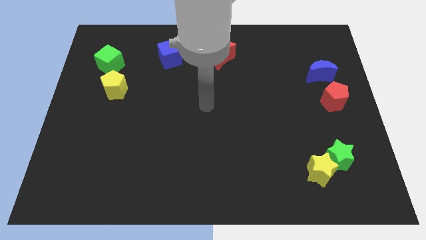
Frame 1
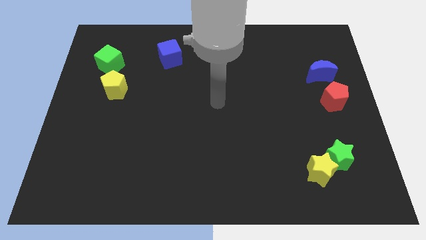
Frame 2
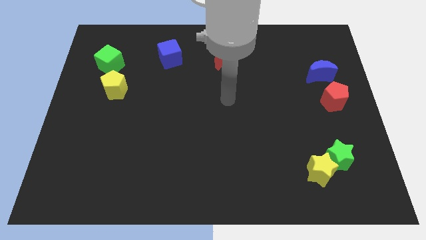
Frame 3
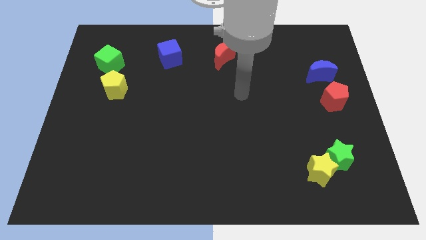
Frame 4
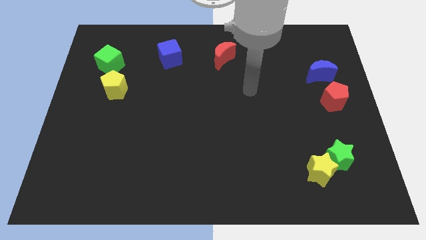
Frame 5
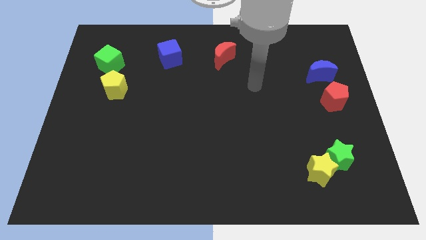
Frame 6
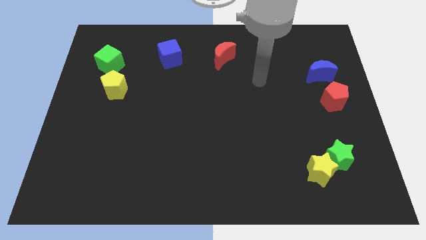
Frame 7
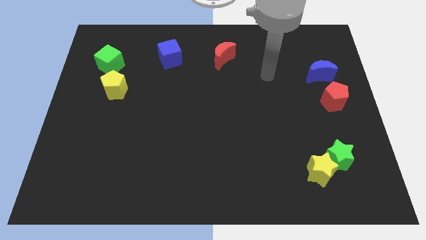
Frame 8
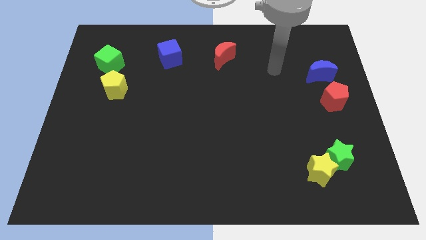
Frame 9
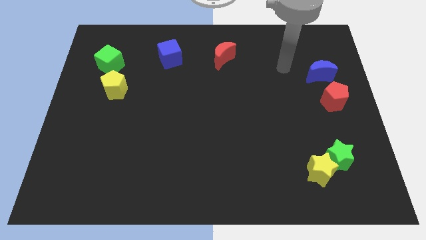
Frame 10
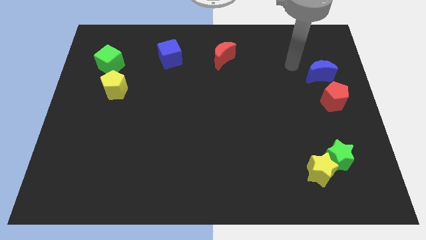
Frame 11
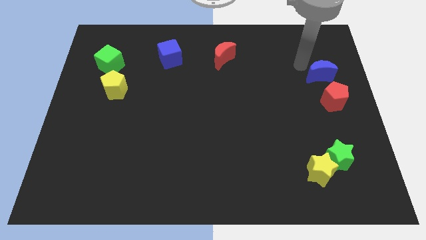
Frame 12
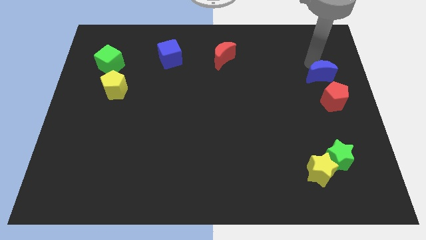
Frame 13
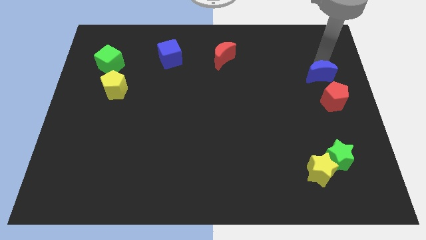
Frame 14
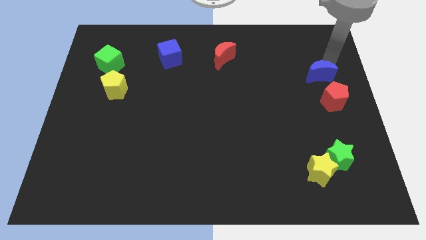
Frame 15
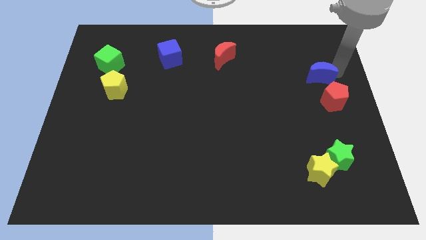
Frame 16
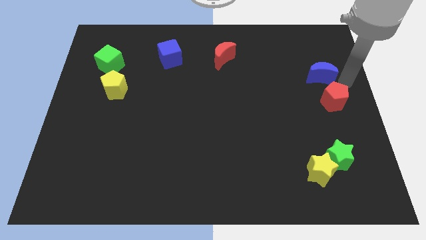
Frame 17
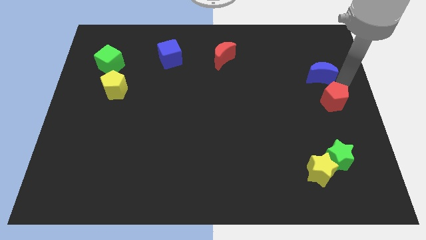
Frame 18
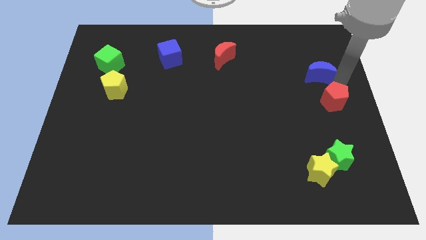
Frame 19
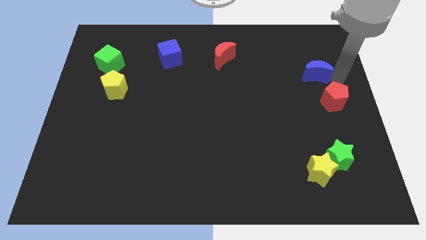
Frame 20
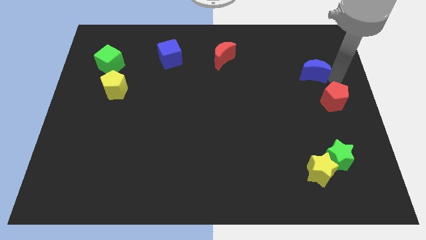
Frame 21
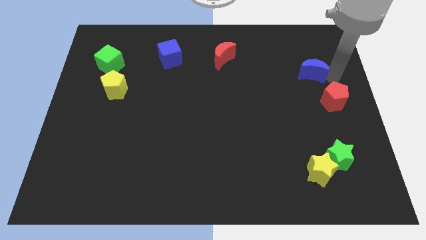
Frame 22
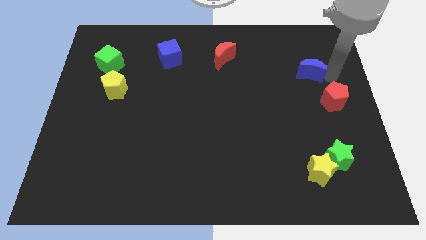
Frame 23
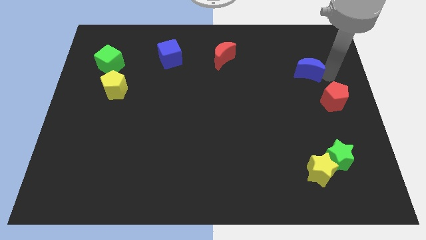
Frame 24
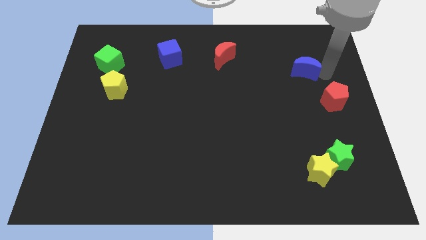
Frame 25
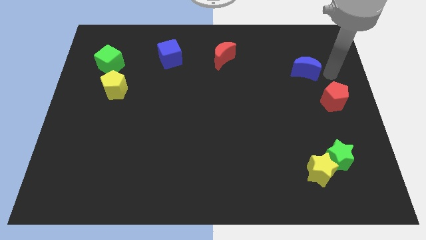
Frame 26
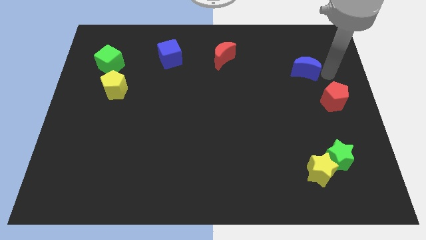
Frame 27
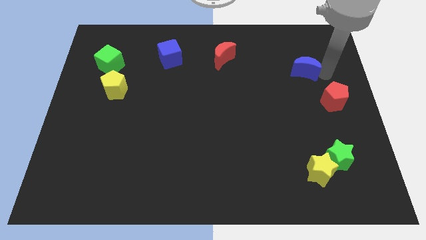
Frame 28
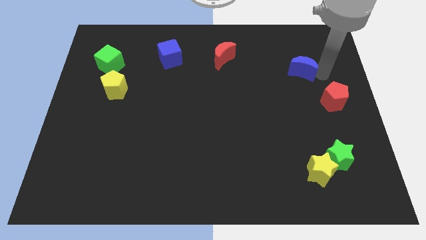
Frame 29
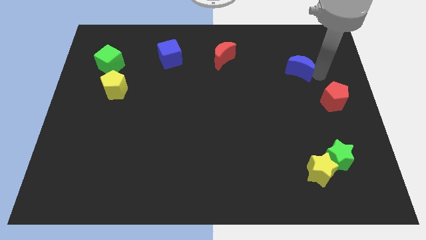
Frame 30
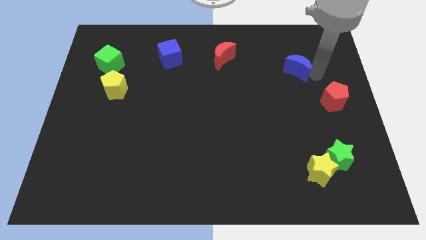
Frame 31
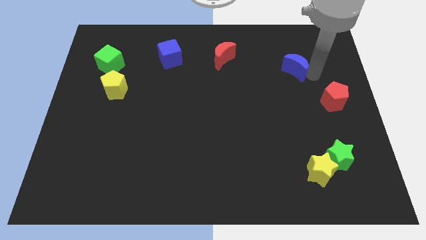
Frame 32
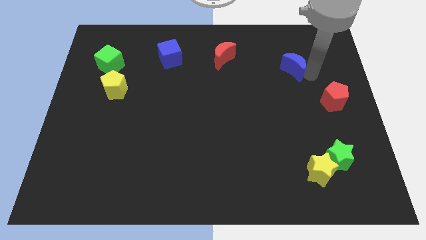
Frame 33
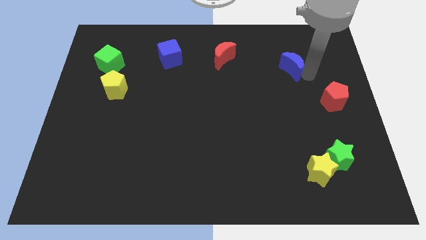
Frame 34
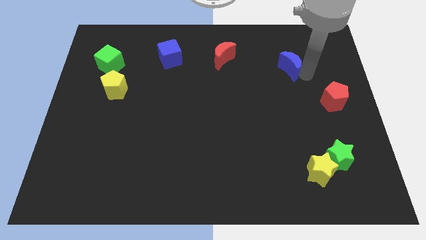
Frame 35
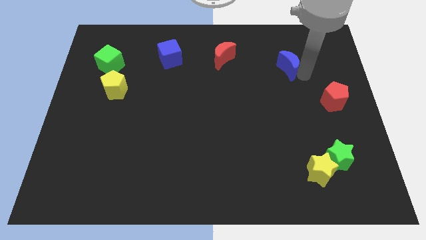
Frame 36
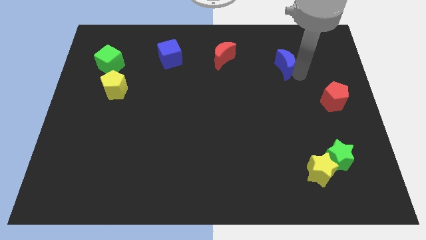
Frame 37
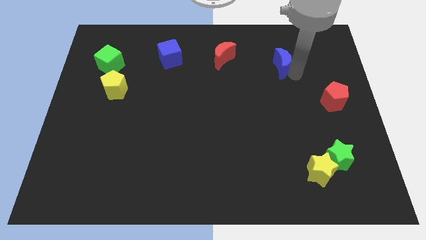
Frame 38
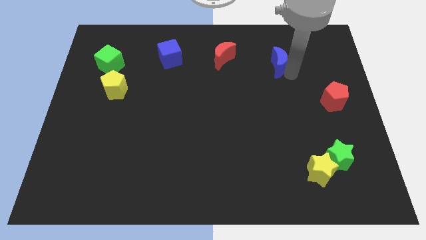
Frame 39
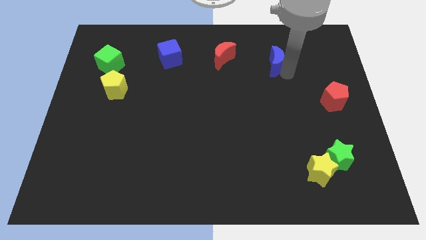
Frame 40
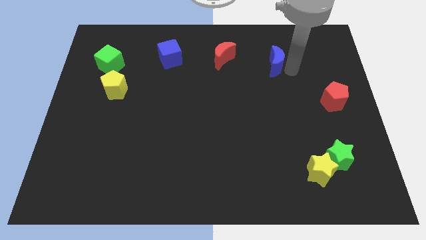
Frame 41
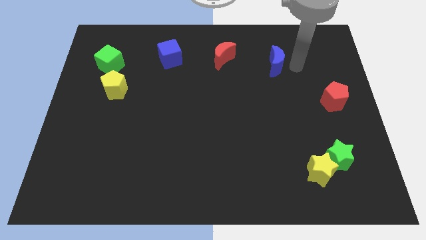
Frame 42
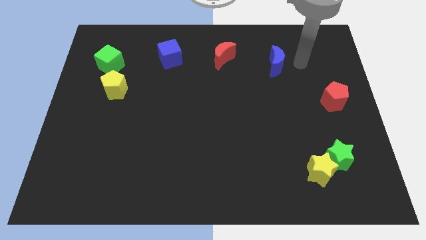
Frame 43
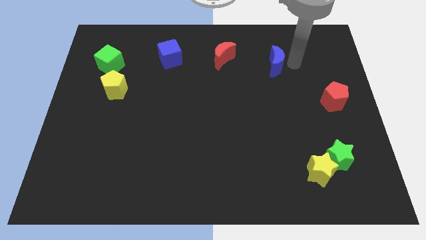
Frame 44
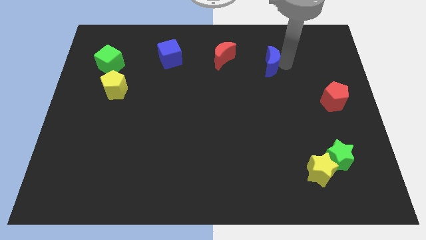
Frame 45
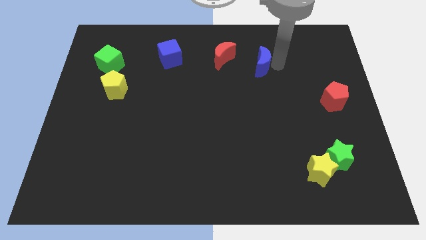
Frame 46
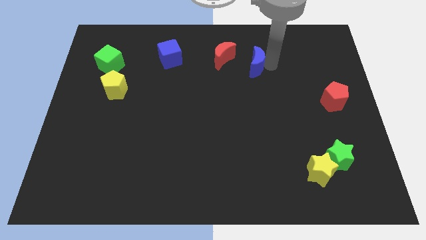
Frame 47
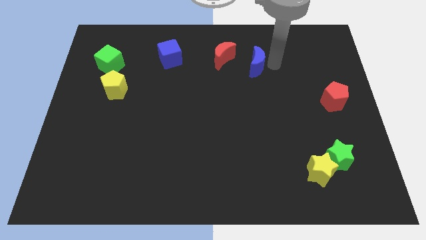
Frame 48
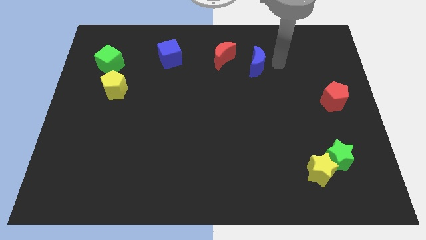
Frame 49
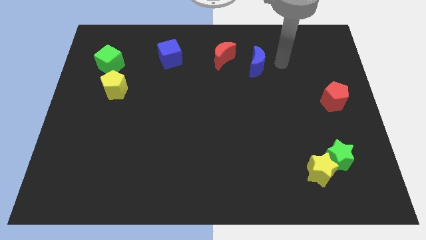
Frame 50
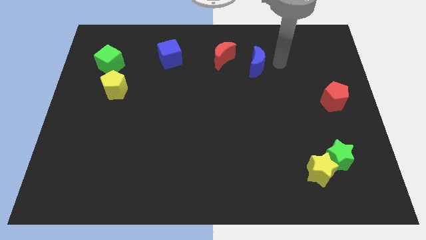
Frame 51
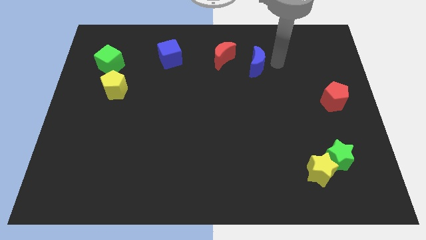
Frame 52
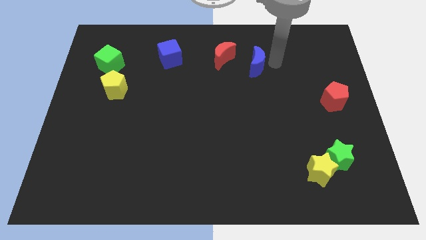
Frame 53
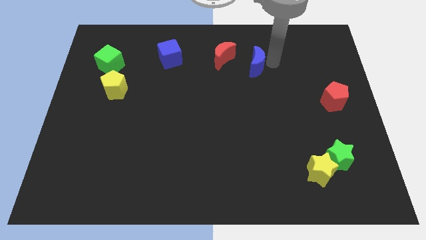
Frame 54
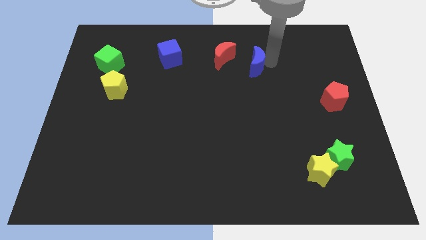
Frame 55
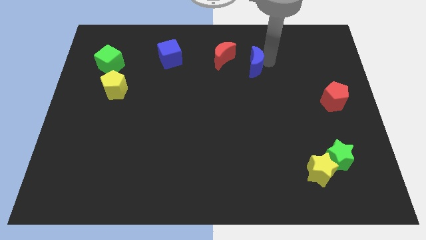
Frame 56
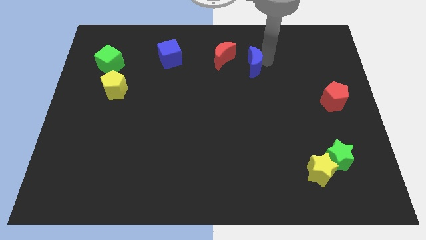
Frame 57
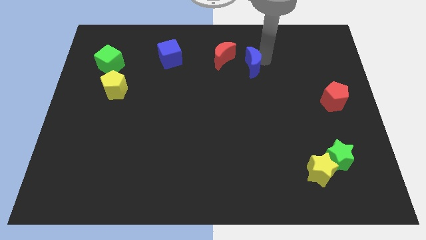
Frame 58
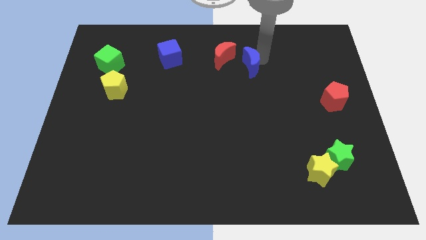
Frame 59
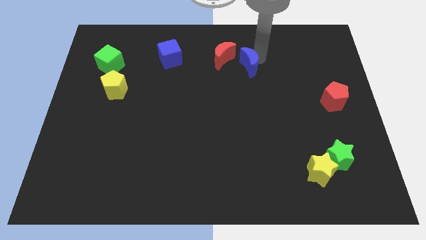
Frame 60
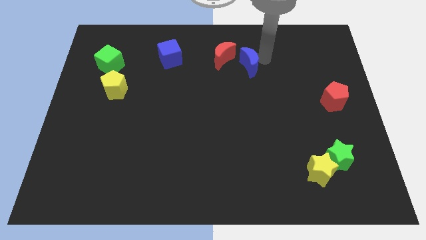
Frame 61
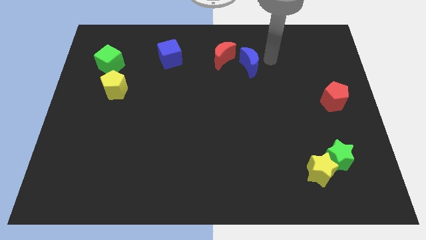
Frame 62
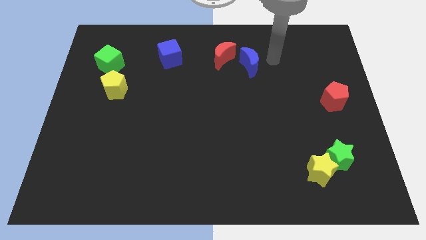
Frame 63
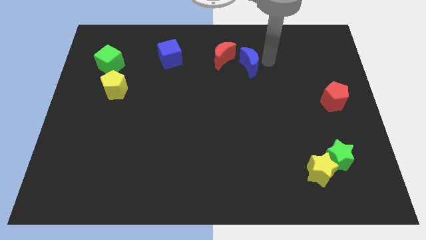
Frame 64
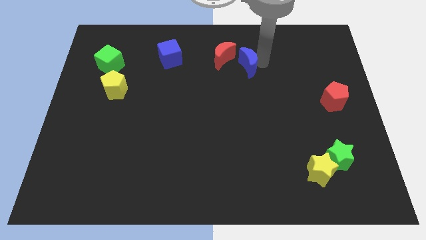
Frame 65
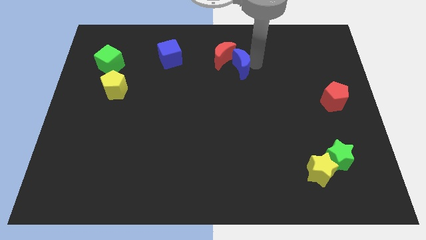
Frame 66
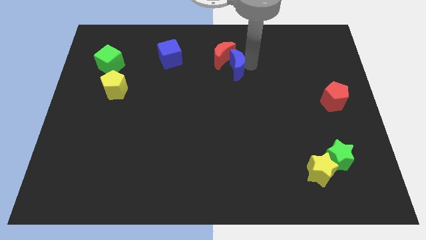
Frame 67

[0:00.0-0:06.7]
move the blue moon to the left

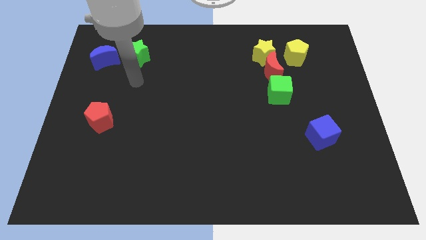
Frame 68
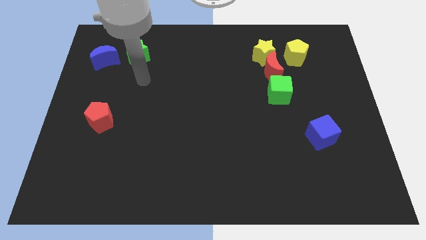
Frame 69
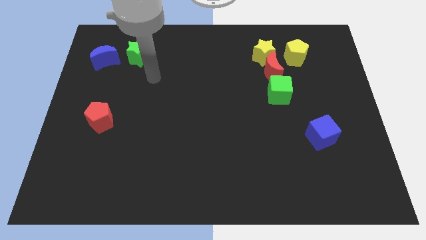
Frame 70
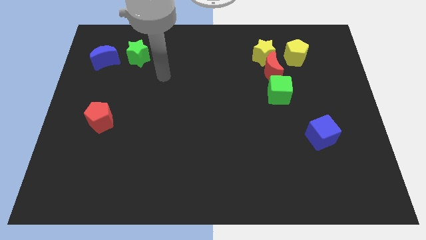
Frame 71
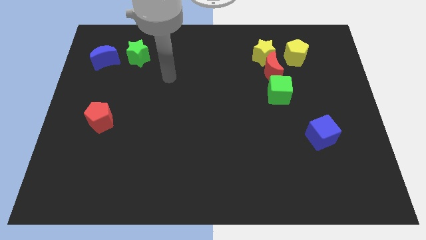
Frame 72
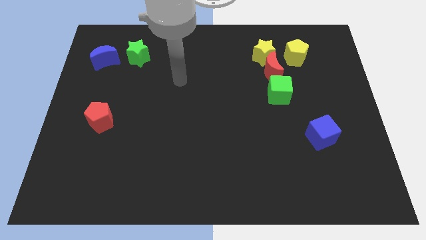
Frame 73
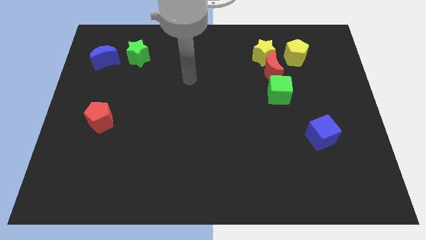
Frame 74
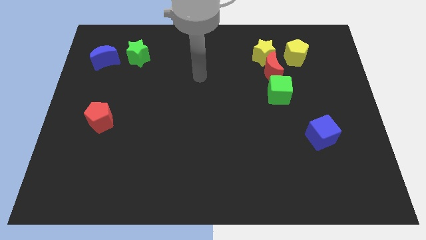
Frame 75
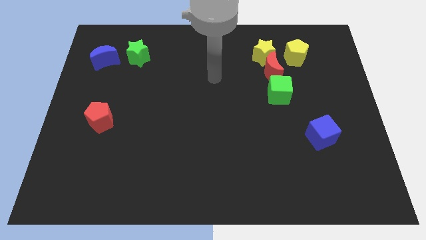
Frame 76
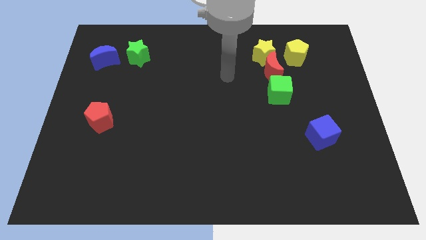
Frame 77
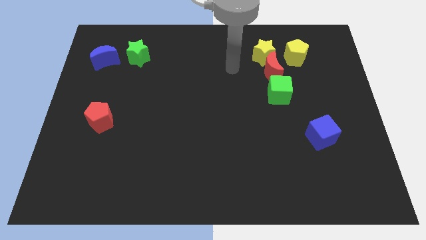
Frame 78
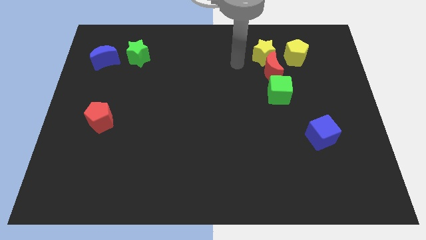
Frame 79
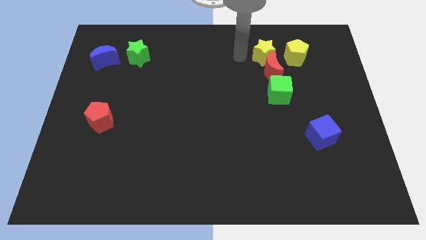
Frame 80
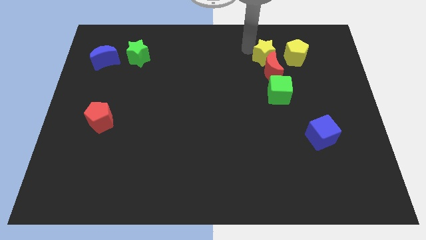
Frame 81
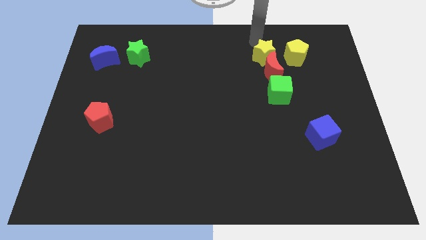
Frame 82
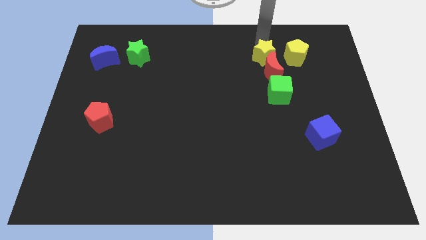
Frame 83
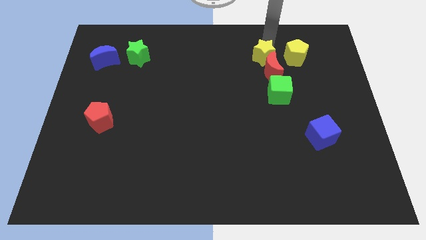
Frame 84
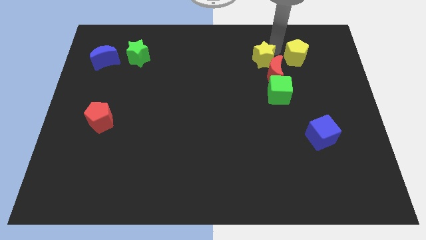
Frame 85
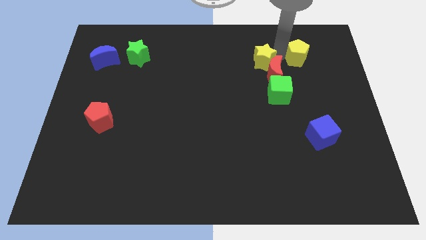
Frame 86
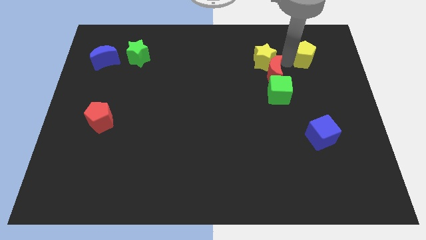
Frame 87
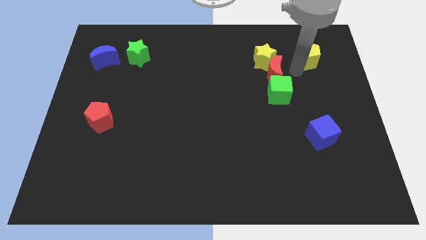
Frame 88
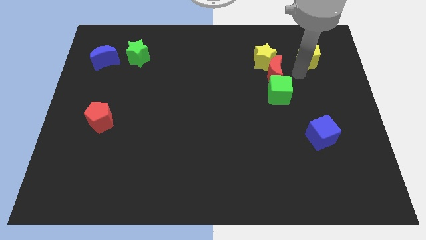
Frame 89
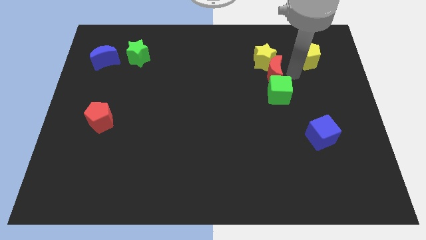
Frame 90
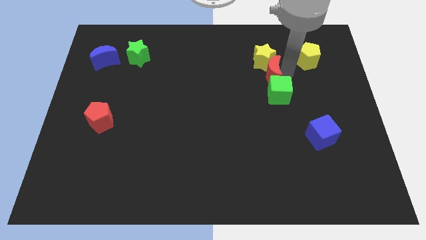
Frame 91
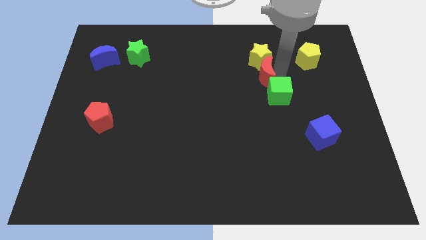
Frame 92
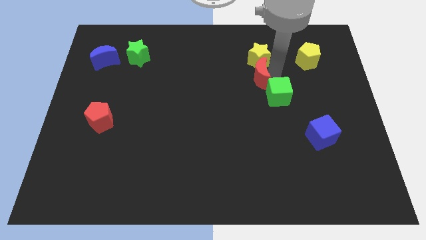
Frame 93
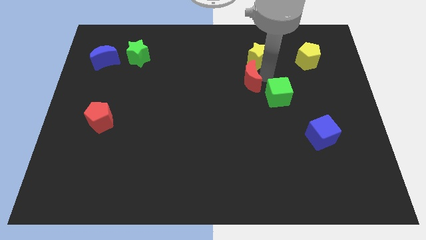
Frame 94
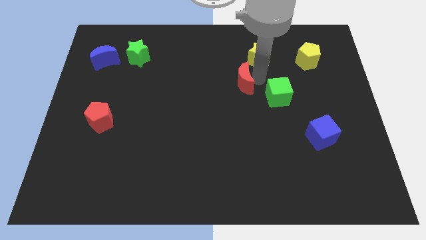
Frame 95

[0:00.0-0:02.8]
slide the red moon to the left somewhat
